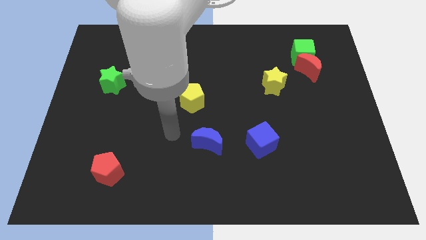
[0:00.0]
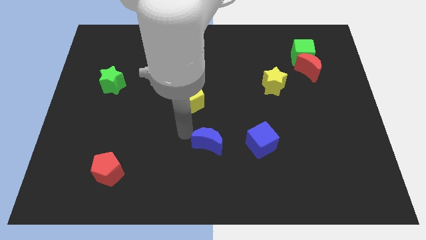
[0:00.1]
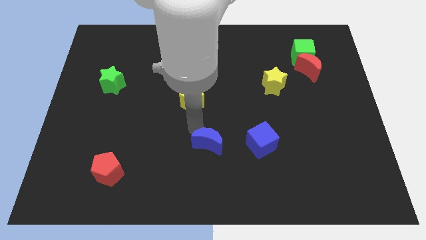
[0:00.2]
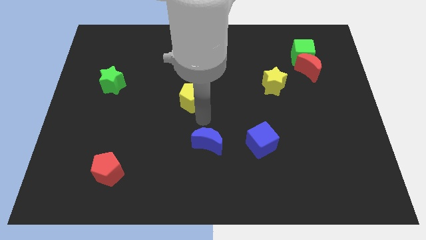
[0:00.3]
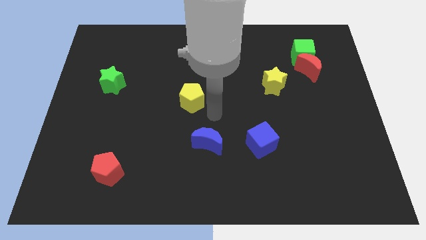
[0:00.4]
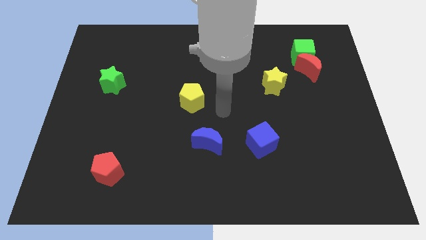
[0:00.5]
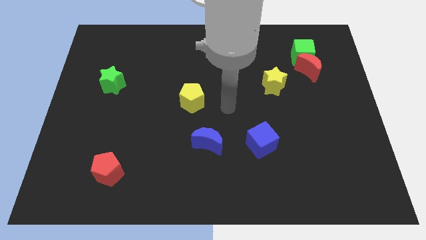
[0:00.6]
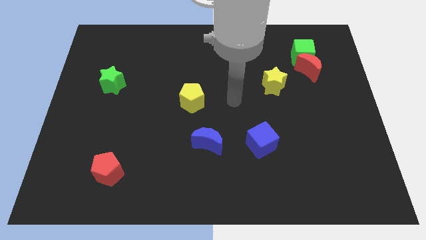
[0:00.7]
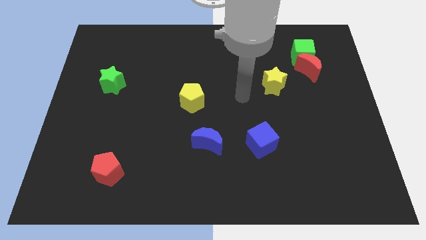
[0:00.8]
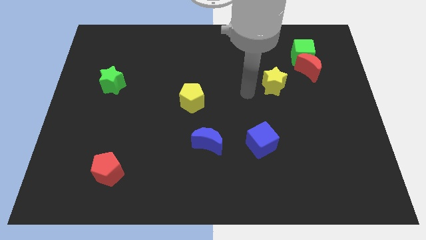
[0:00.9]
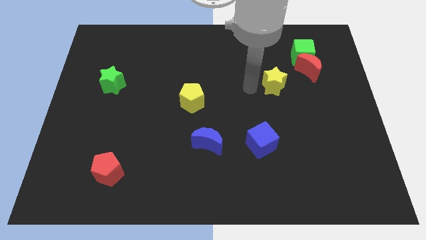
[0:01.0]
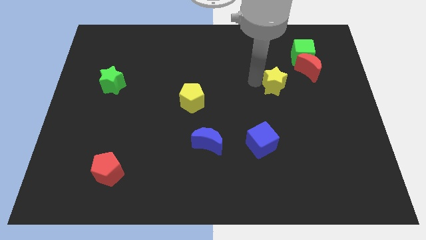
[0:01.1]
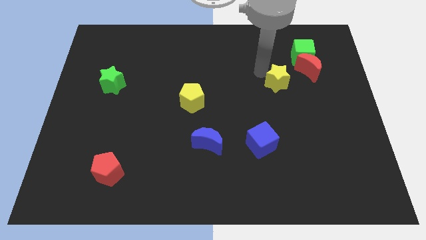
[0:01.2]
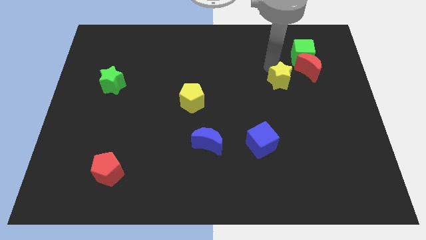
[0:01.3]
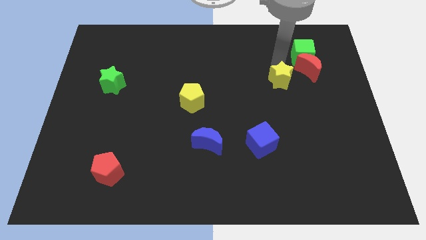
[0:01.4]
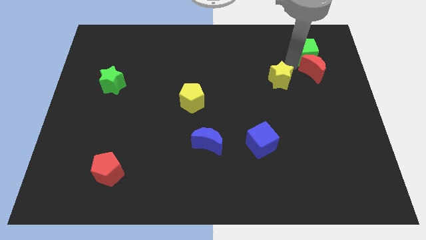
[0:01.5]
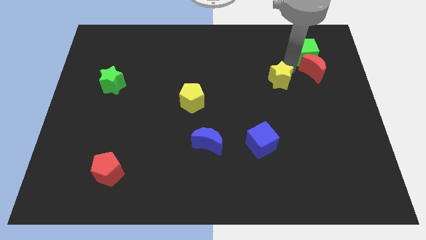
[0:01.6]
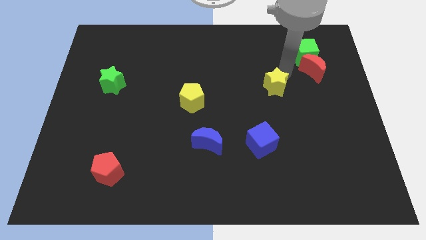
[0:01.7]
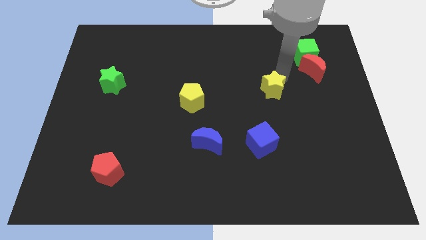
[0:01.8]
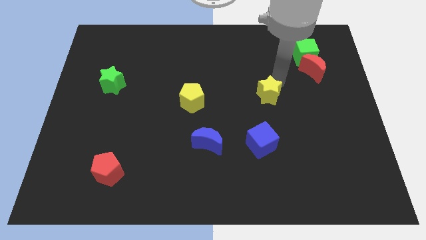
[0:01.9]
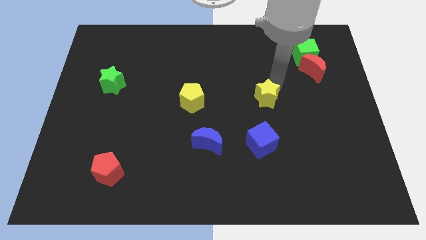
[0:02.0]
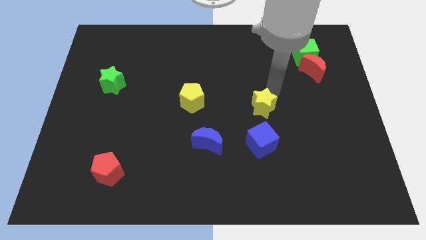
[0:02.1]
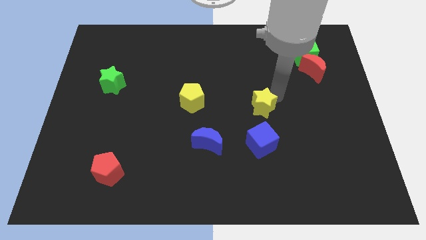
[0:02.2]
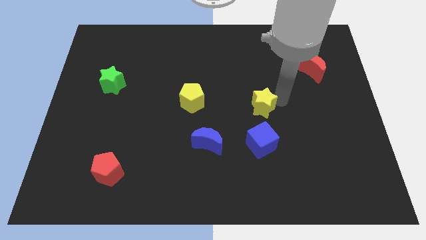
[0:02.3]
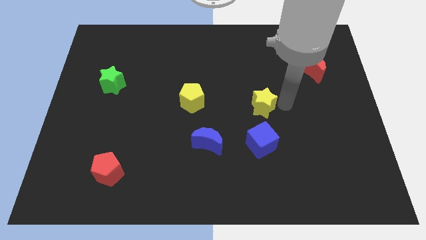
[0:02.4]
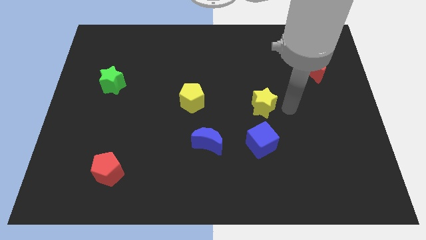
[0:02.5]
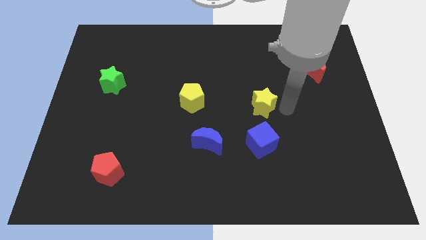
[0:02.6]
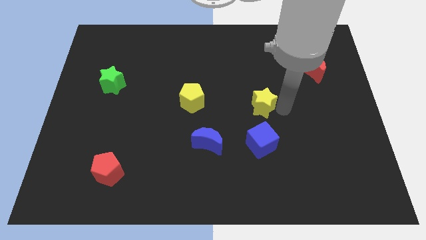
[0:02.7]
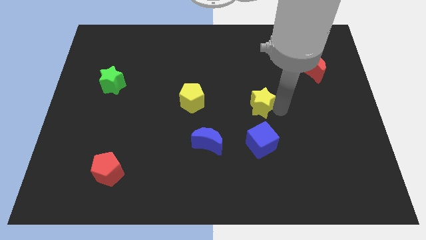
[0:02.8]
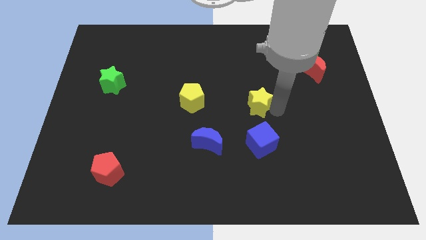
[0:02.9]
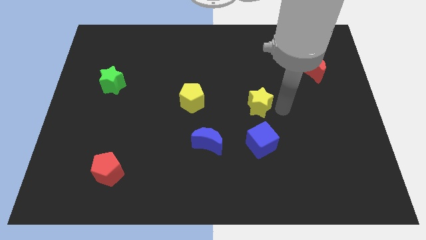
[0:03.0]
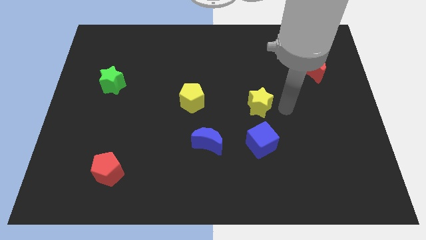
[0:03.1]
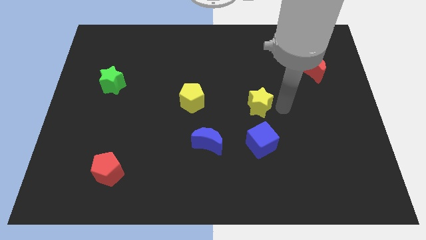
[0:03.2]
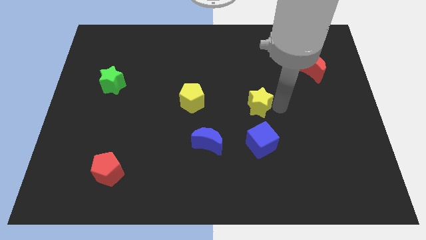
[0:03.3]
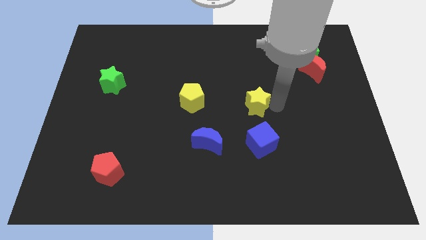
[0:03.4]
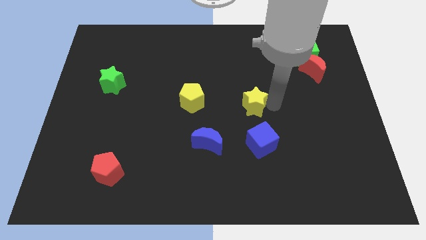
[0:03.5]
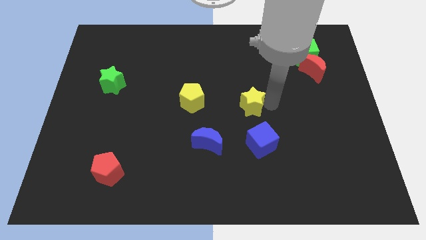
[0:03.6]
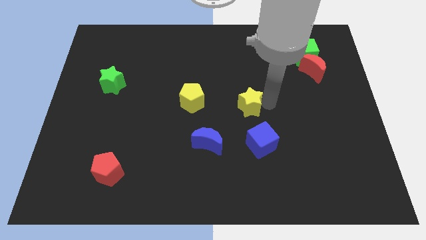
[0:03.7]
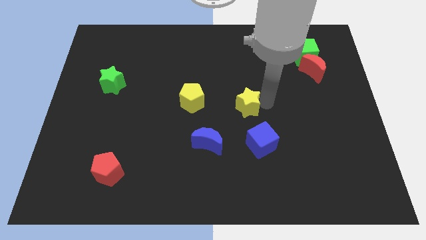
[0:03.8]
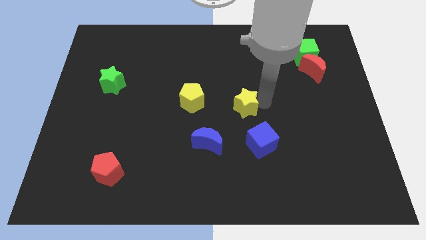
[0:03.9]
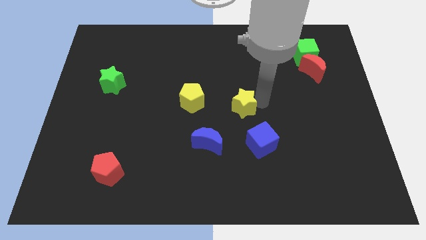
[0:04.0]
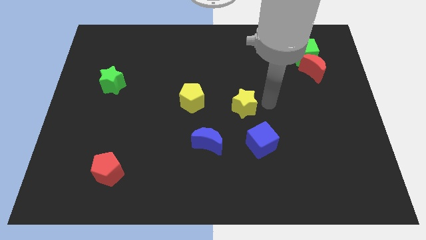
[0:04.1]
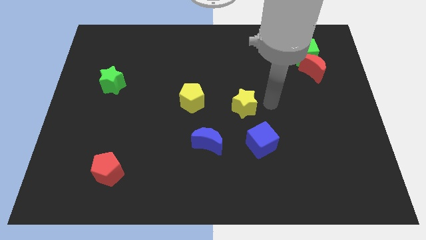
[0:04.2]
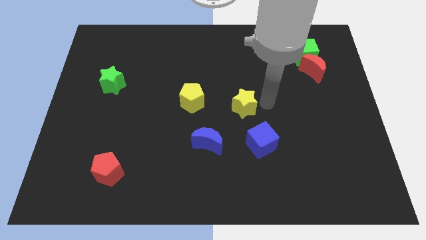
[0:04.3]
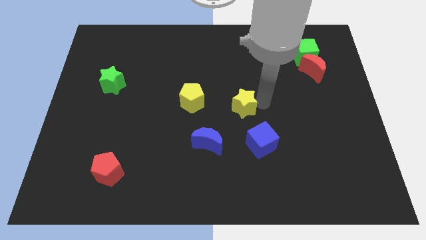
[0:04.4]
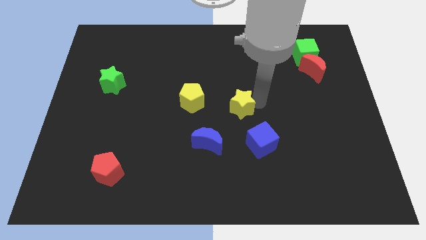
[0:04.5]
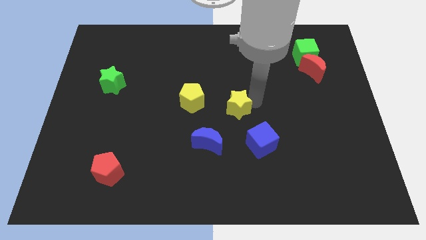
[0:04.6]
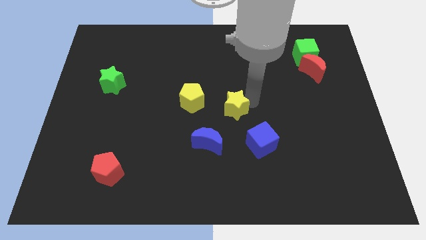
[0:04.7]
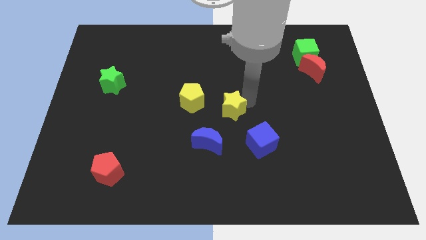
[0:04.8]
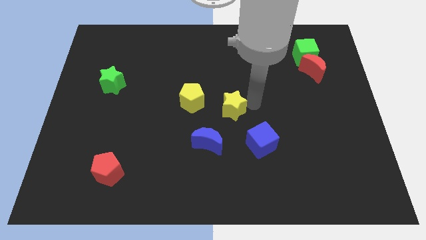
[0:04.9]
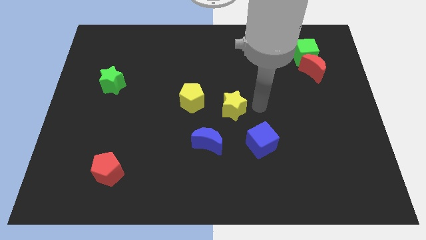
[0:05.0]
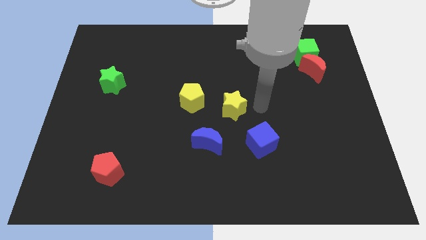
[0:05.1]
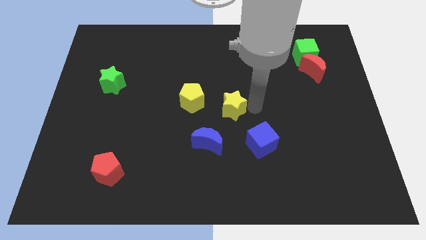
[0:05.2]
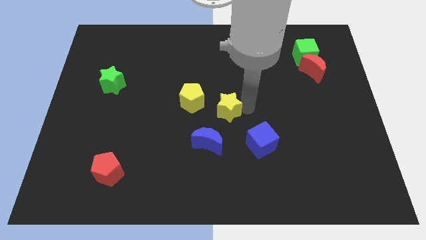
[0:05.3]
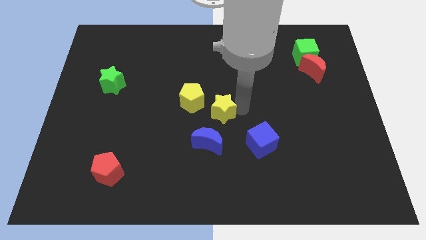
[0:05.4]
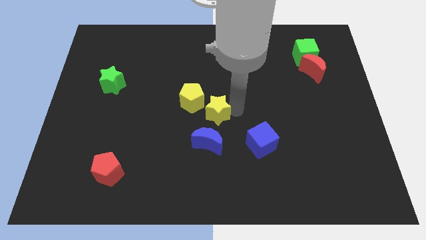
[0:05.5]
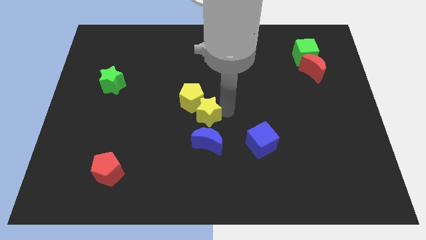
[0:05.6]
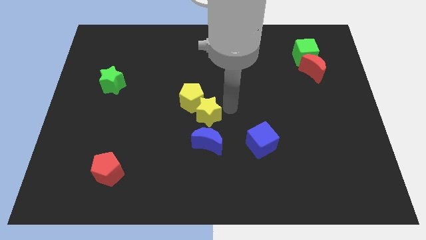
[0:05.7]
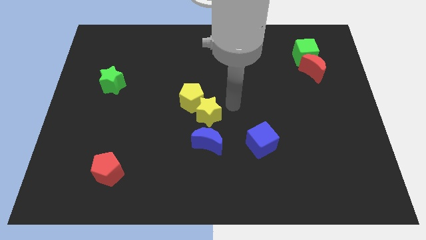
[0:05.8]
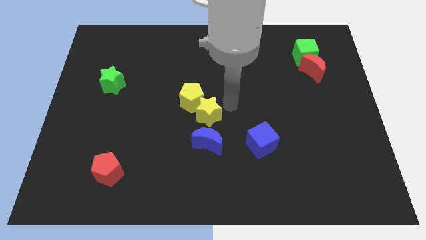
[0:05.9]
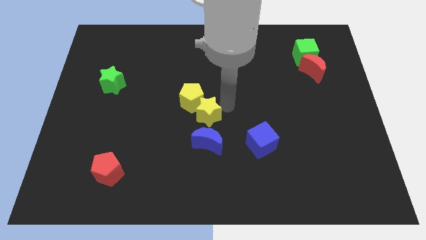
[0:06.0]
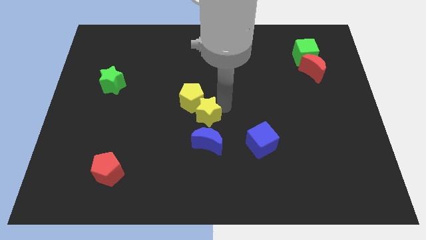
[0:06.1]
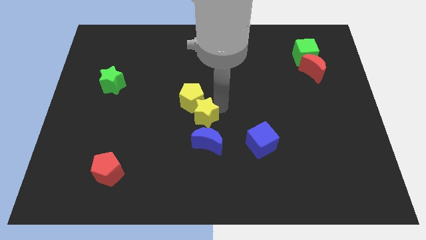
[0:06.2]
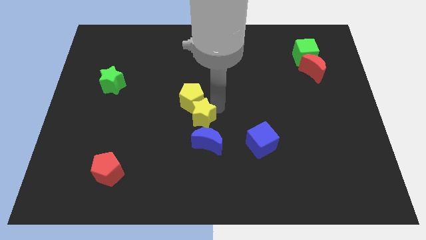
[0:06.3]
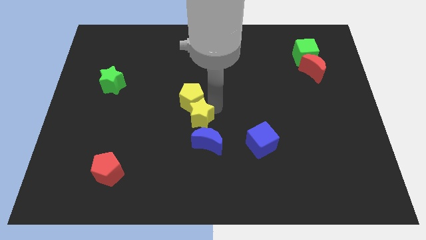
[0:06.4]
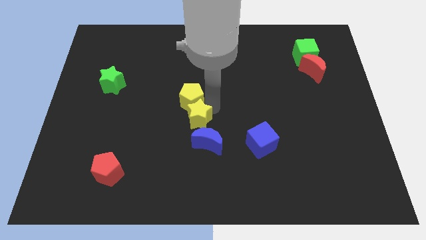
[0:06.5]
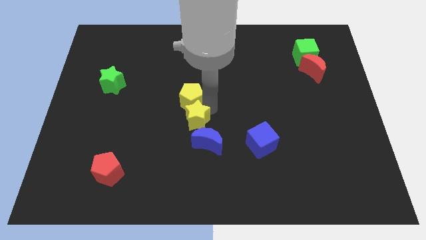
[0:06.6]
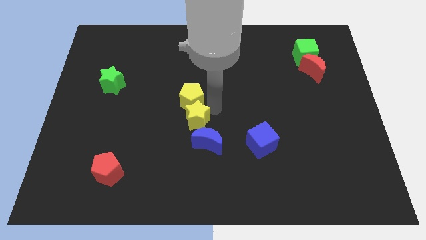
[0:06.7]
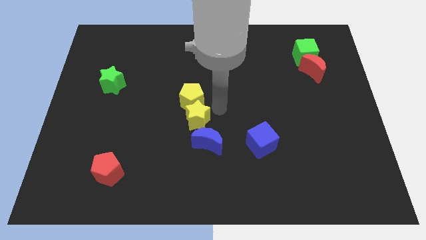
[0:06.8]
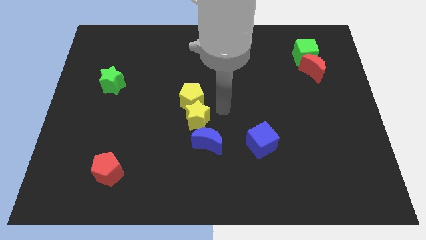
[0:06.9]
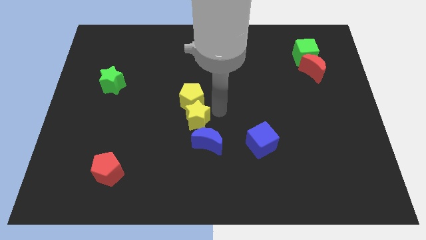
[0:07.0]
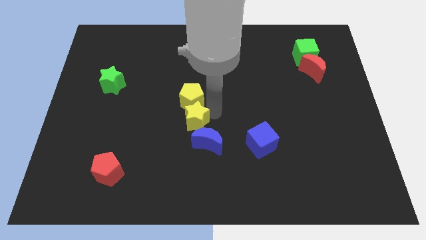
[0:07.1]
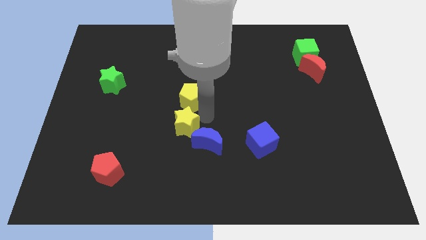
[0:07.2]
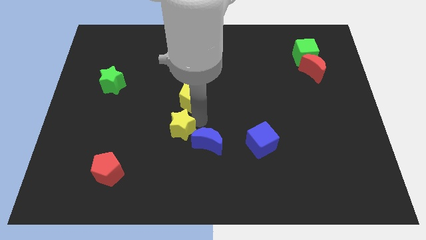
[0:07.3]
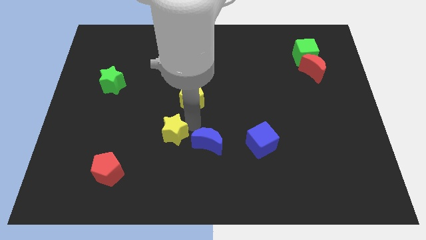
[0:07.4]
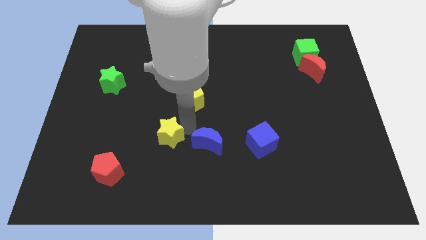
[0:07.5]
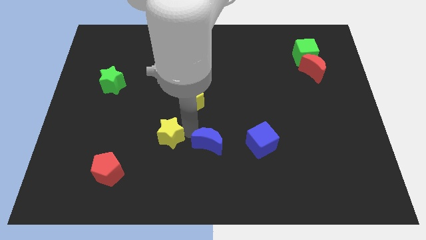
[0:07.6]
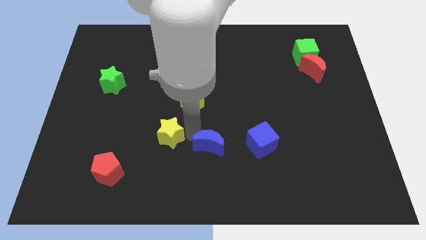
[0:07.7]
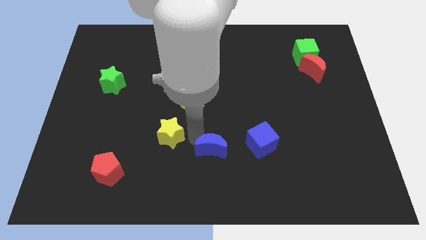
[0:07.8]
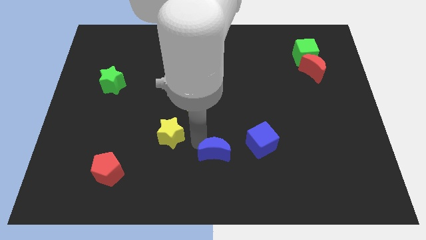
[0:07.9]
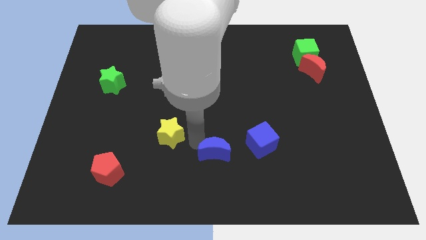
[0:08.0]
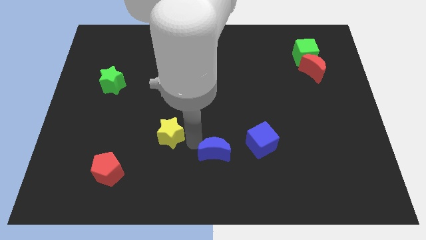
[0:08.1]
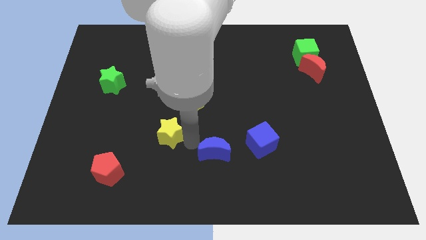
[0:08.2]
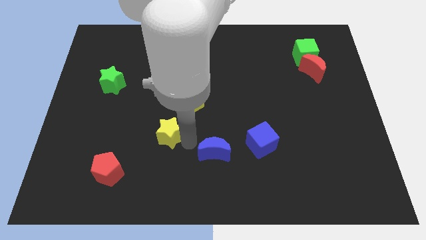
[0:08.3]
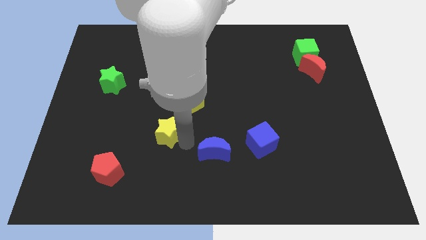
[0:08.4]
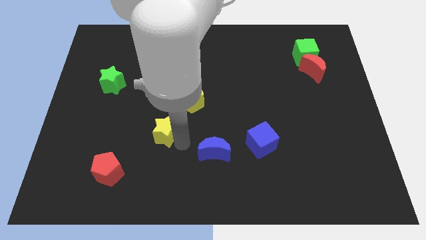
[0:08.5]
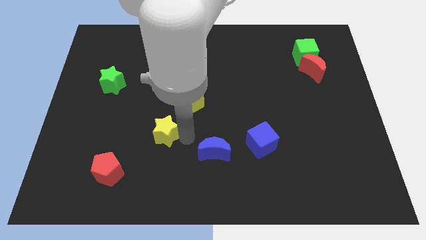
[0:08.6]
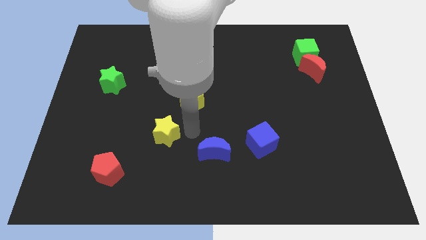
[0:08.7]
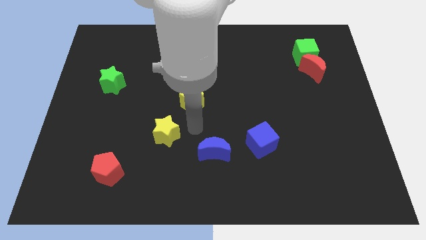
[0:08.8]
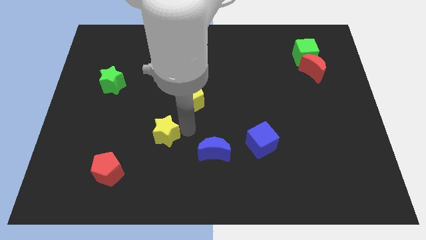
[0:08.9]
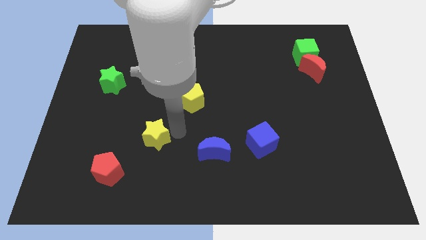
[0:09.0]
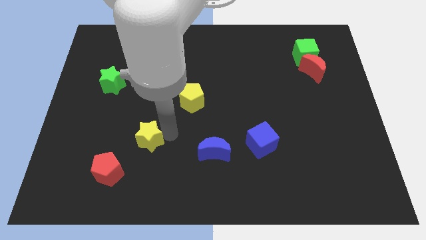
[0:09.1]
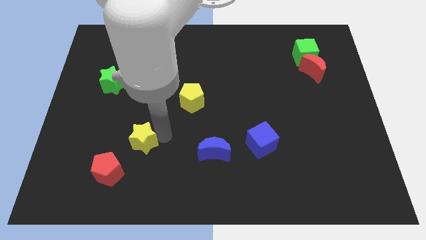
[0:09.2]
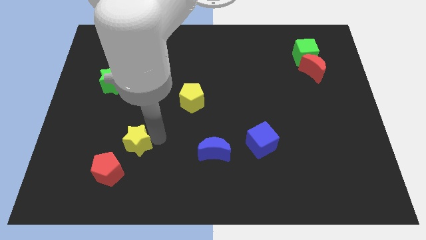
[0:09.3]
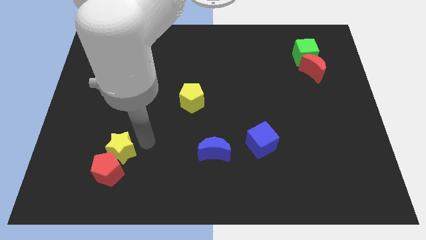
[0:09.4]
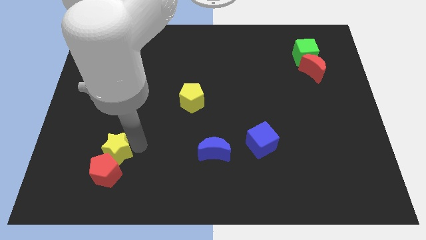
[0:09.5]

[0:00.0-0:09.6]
put the yellow star to the top left side of the red pentagon
